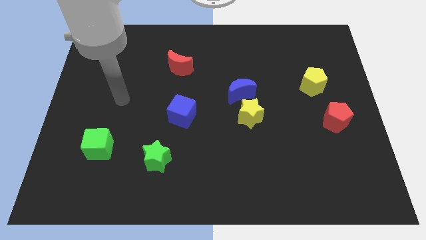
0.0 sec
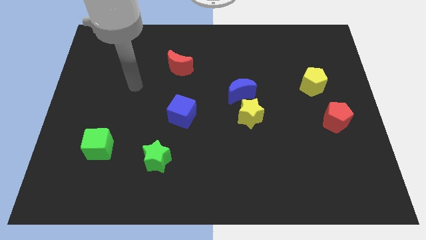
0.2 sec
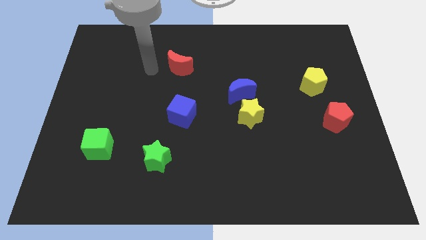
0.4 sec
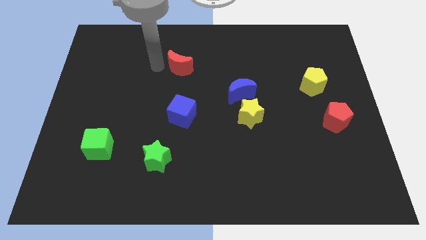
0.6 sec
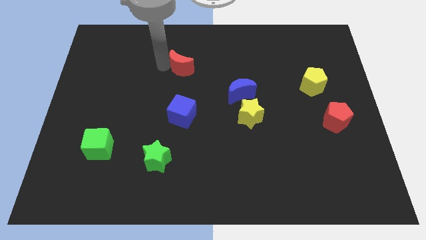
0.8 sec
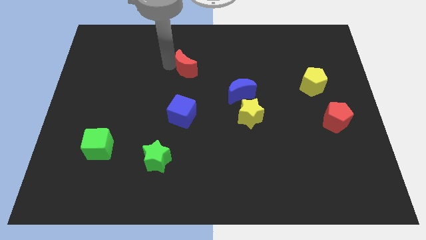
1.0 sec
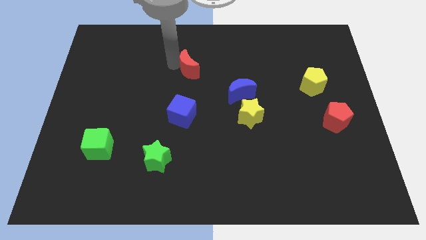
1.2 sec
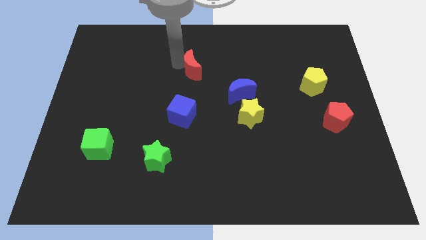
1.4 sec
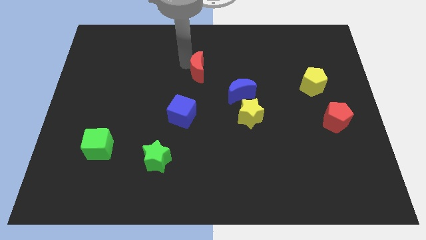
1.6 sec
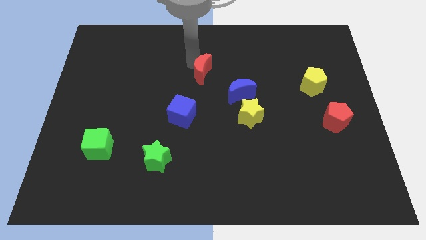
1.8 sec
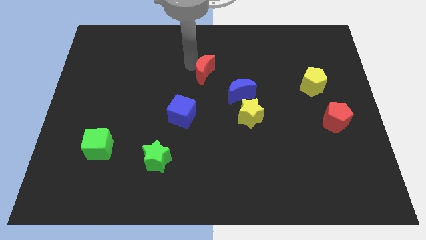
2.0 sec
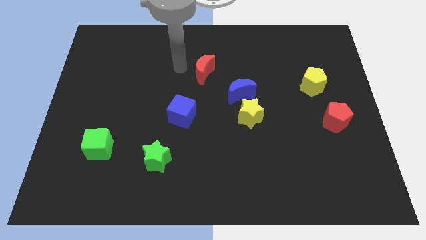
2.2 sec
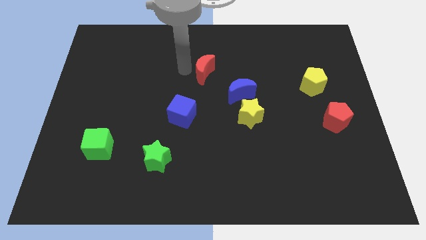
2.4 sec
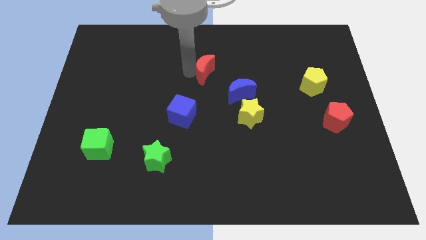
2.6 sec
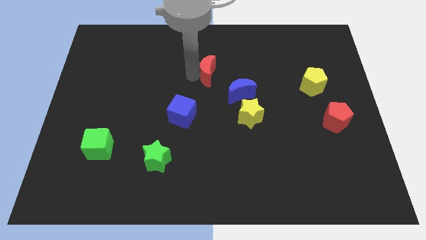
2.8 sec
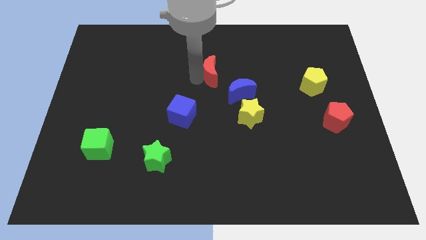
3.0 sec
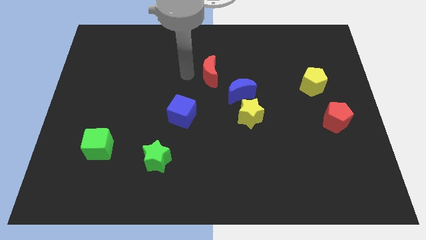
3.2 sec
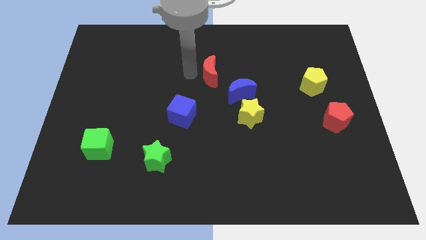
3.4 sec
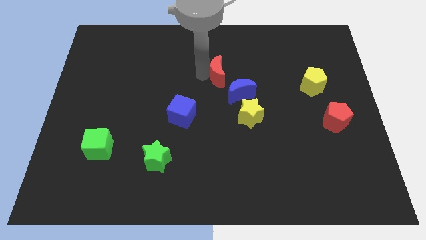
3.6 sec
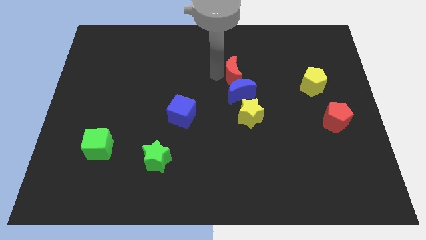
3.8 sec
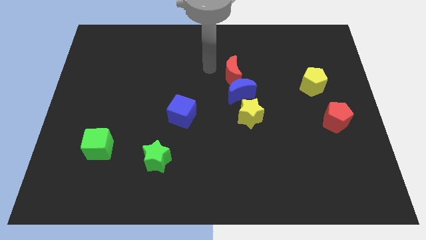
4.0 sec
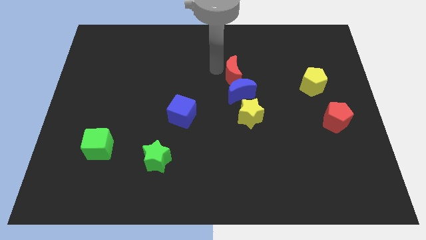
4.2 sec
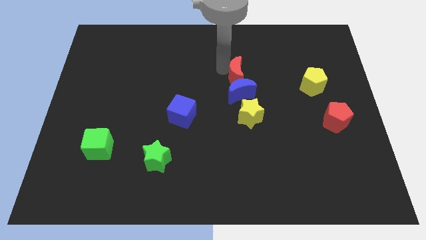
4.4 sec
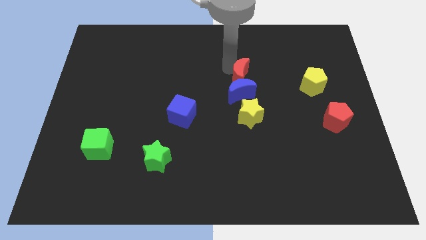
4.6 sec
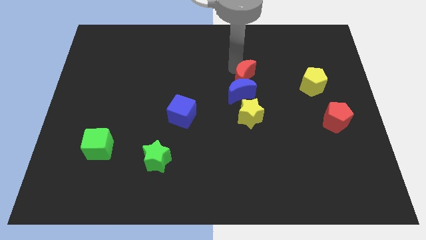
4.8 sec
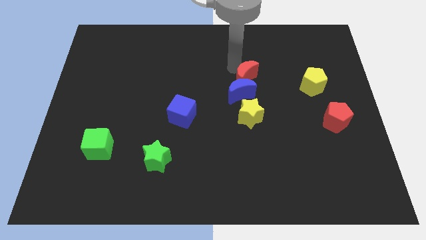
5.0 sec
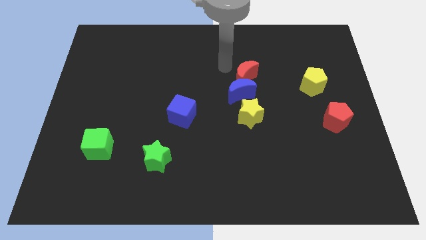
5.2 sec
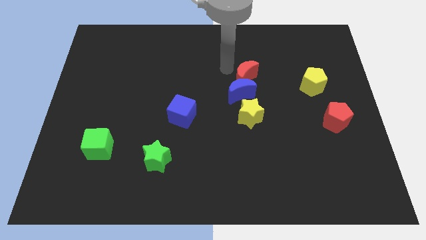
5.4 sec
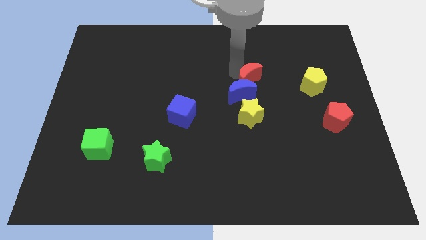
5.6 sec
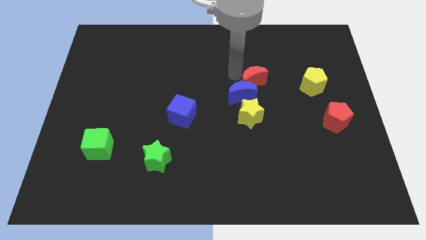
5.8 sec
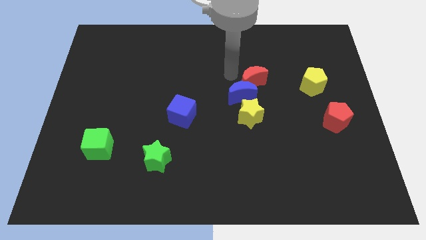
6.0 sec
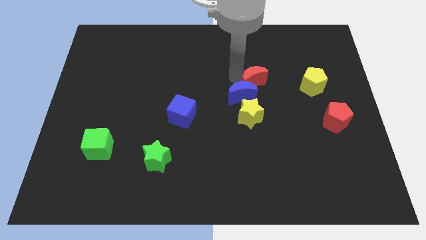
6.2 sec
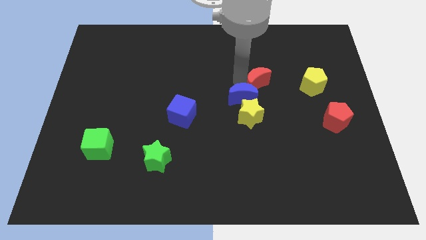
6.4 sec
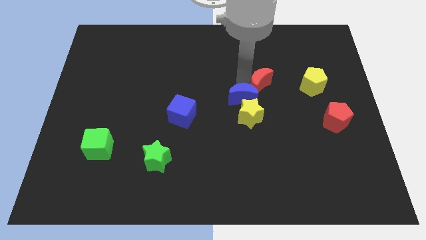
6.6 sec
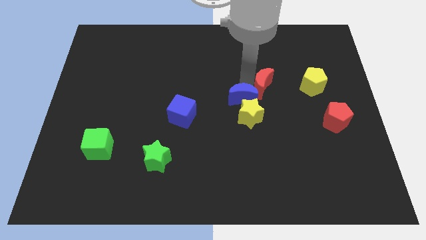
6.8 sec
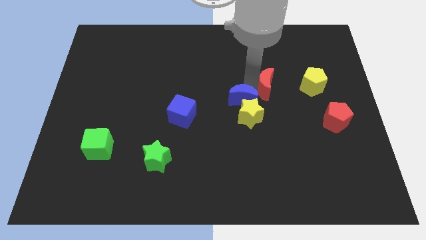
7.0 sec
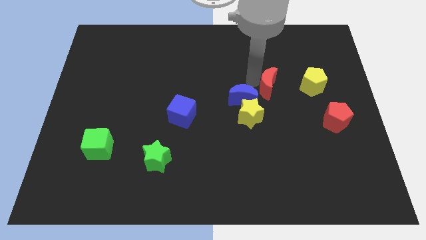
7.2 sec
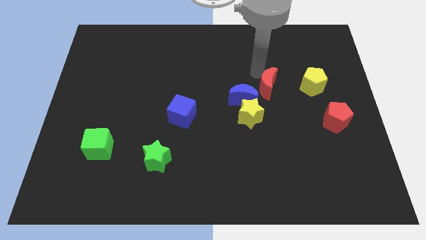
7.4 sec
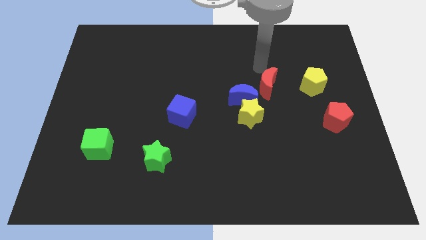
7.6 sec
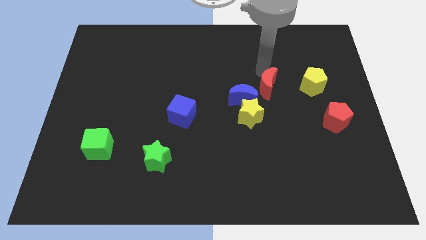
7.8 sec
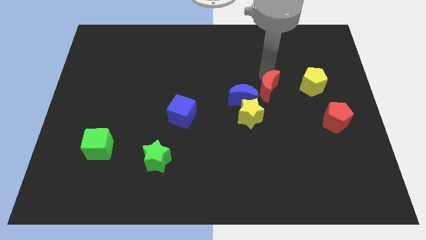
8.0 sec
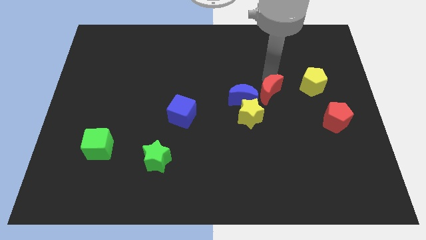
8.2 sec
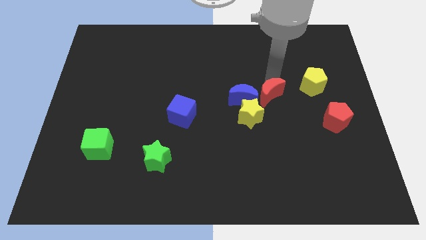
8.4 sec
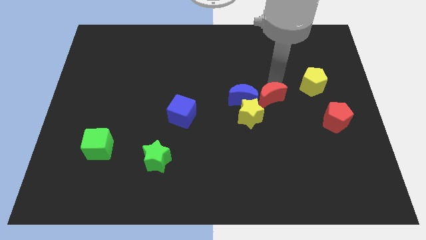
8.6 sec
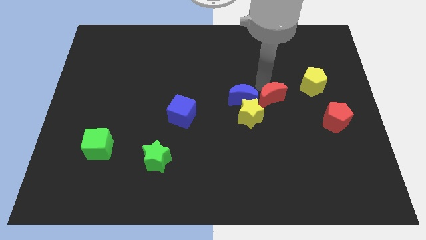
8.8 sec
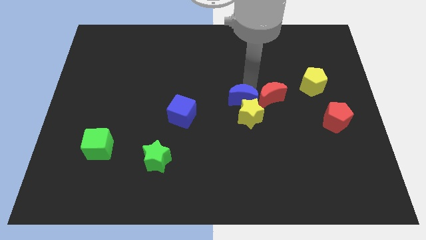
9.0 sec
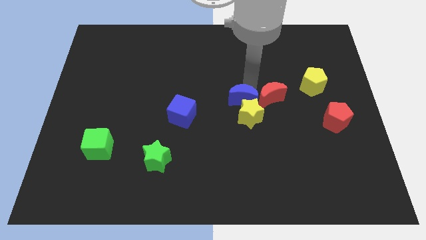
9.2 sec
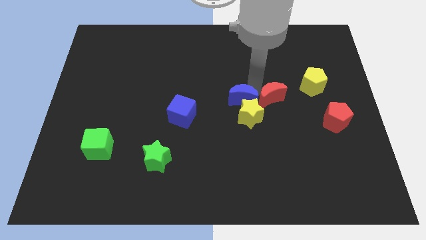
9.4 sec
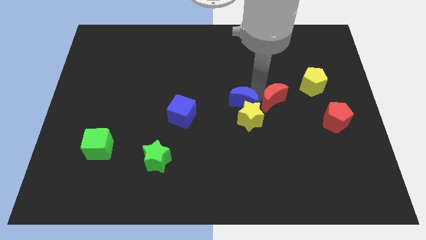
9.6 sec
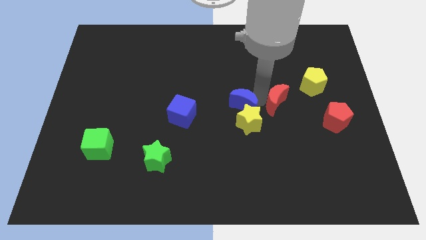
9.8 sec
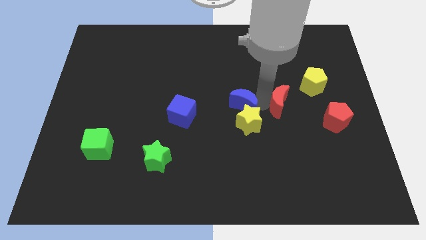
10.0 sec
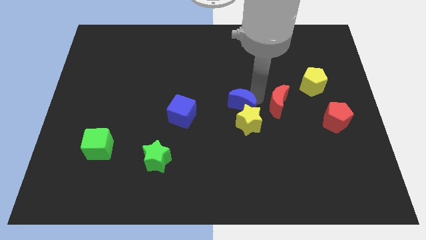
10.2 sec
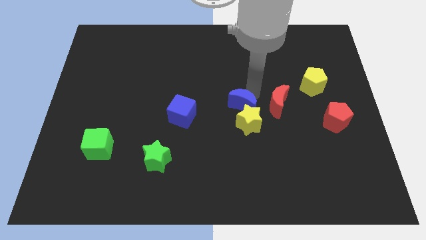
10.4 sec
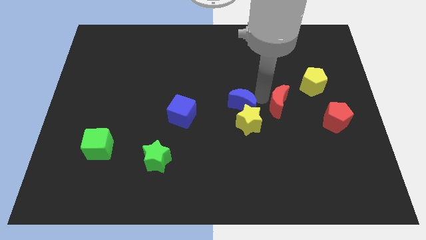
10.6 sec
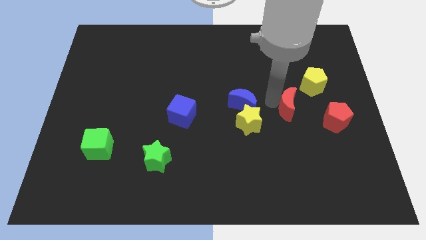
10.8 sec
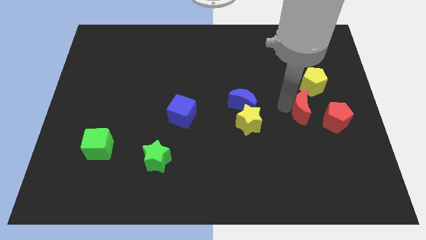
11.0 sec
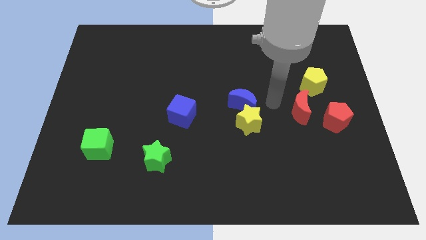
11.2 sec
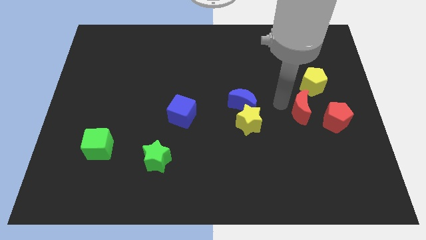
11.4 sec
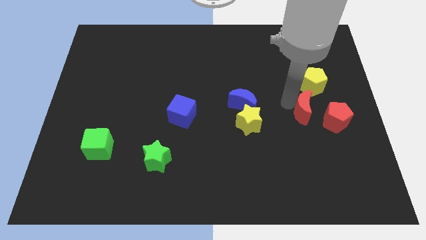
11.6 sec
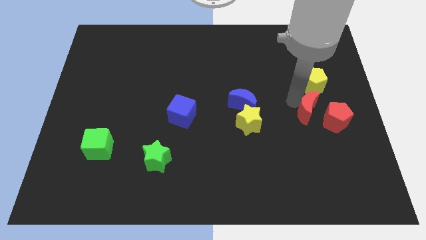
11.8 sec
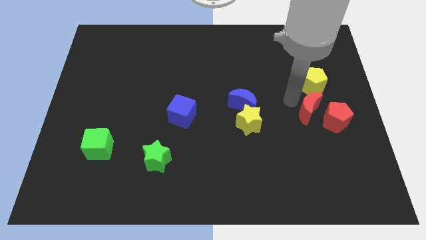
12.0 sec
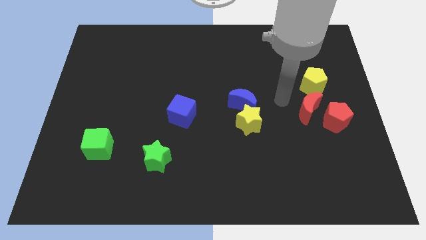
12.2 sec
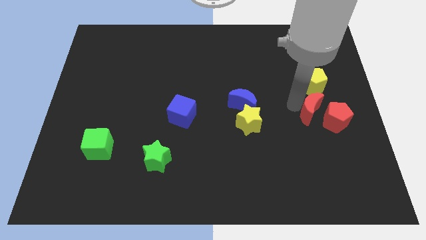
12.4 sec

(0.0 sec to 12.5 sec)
slide the red moon to the red pentagon
